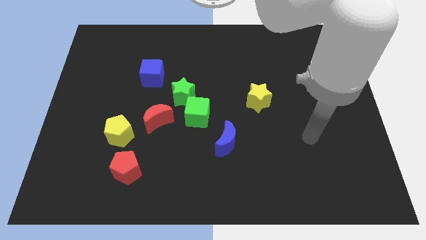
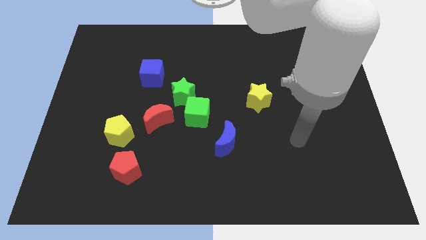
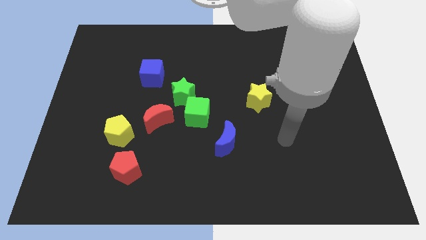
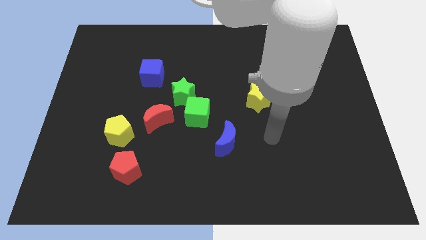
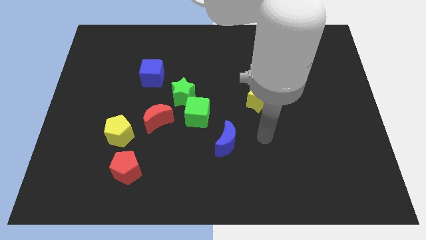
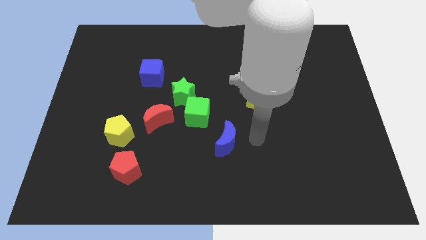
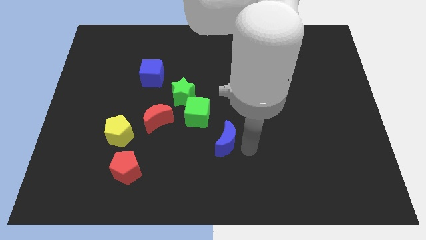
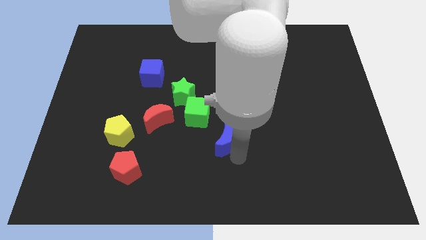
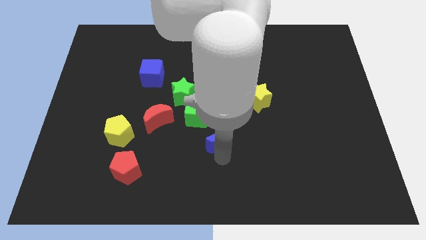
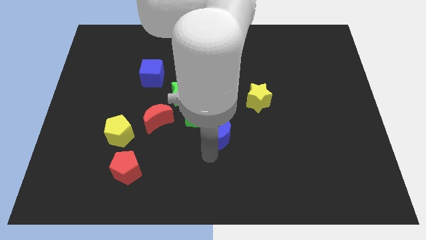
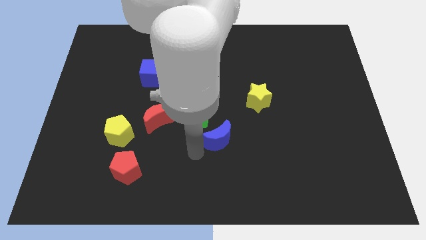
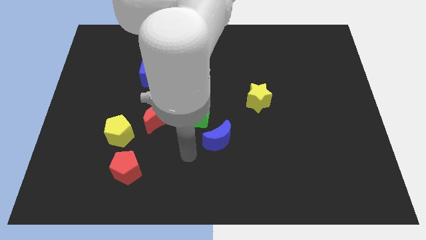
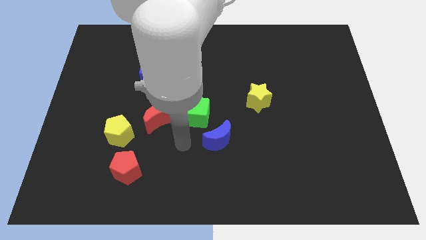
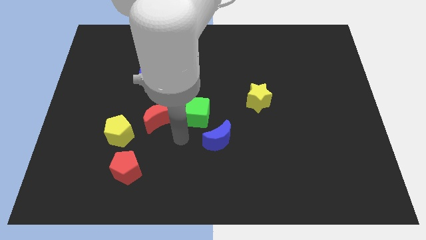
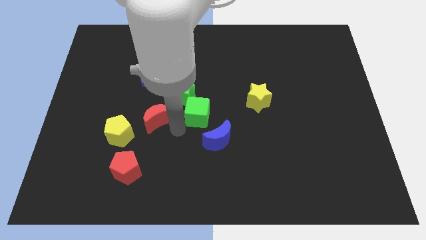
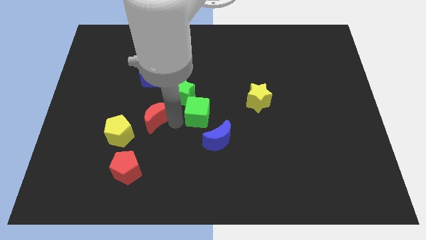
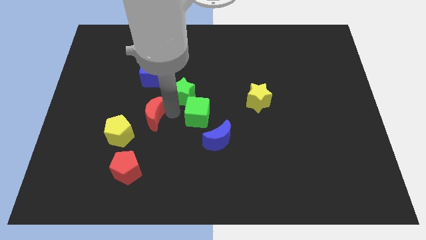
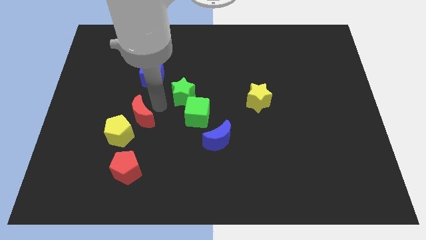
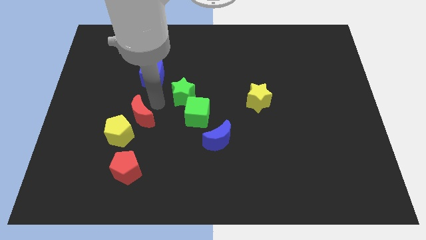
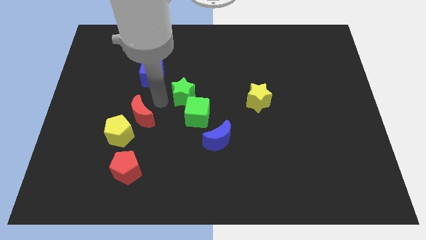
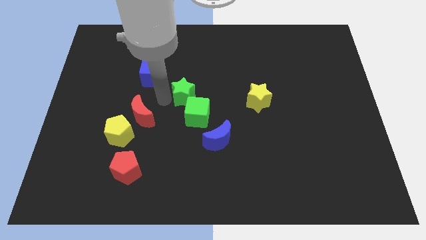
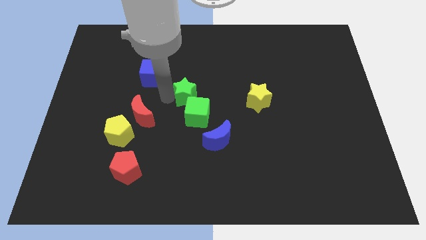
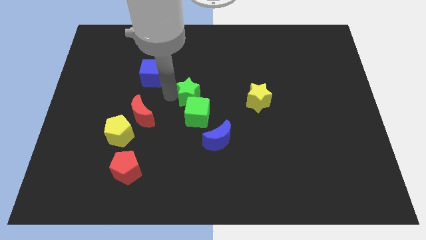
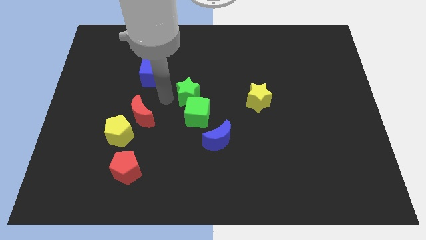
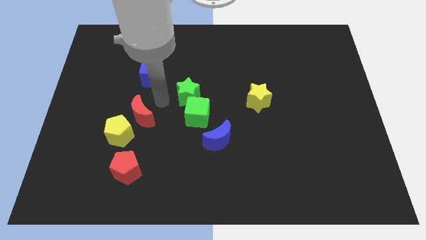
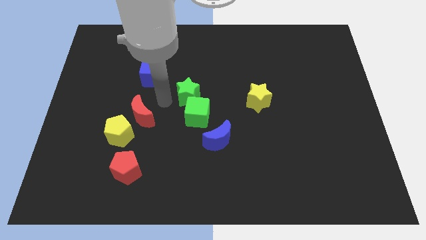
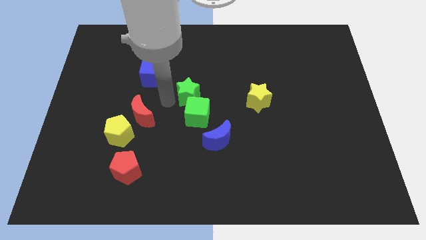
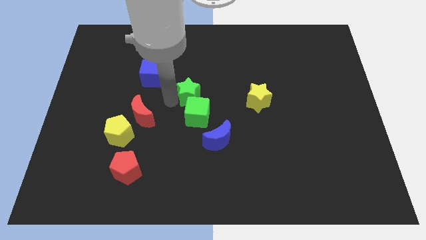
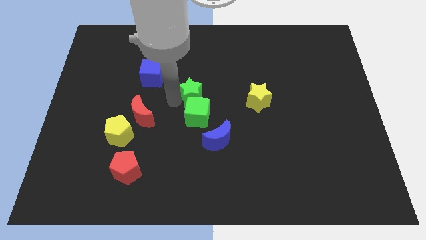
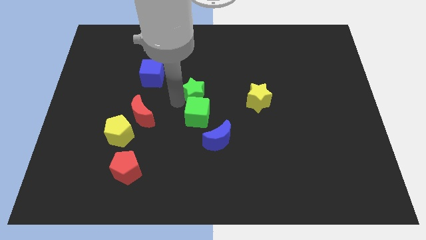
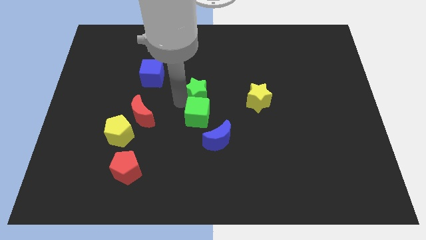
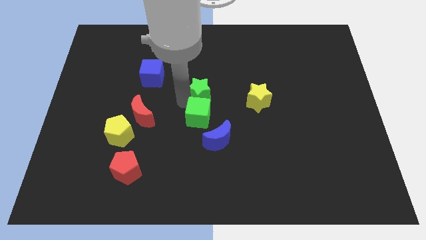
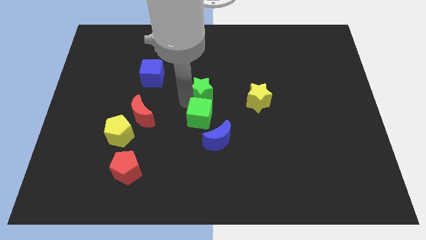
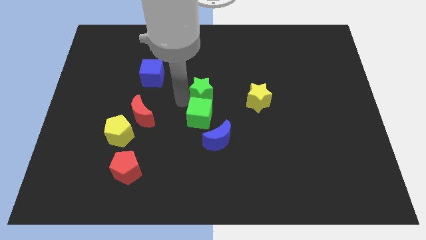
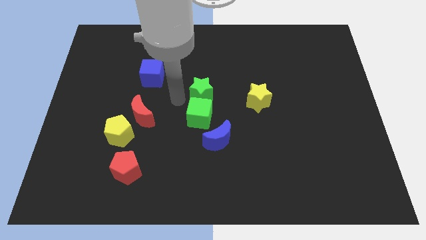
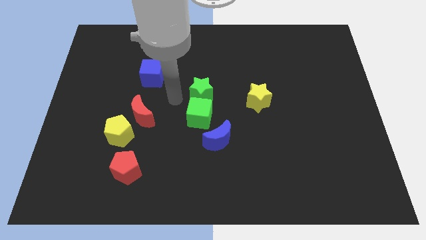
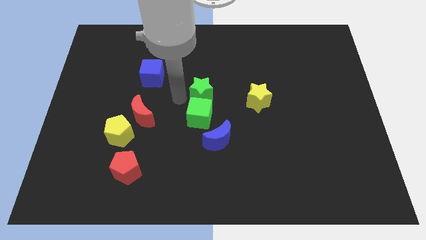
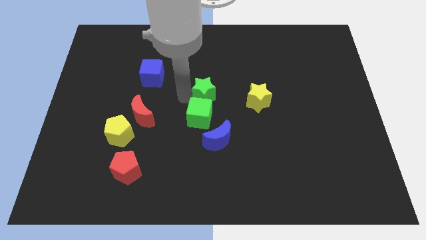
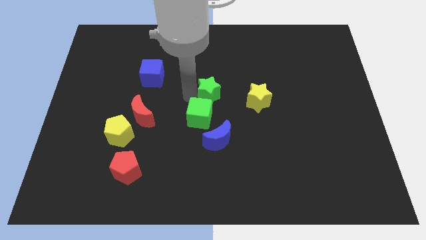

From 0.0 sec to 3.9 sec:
separate the green star from the green cube, red moon, and blue cube

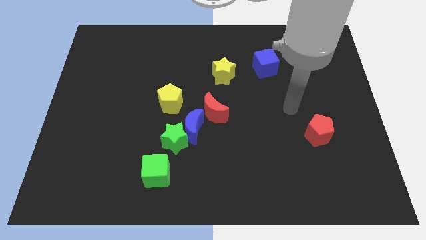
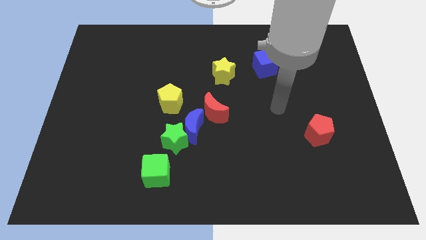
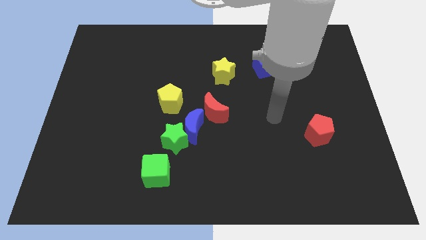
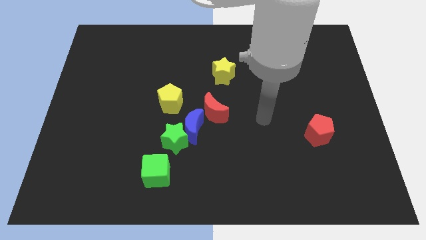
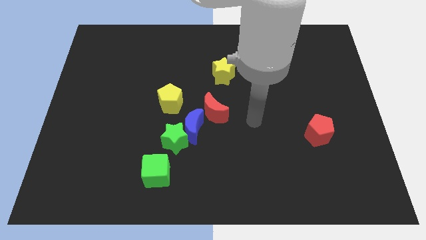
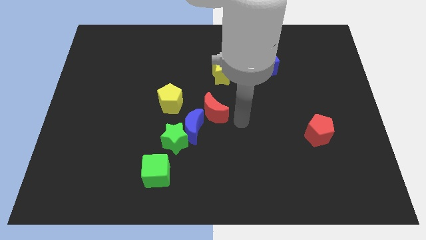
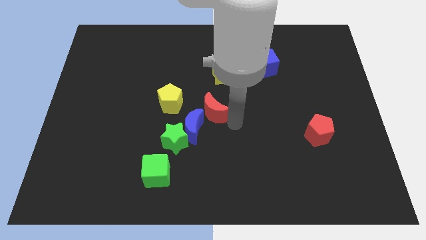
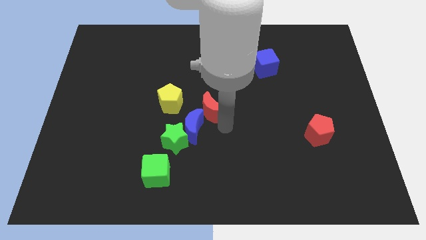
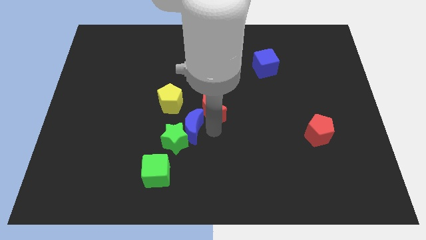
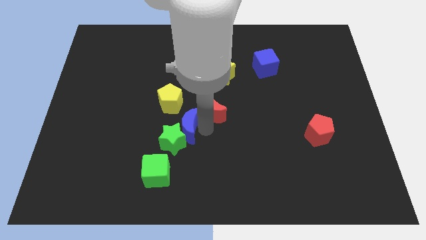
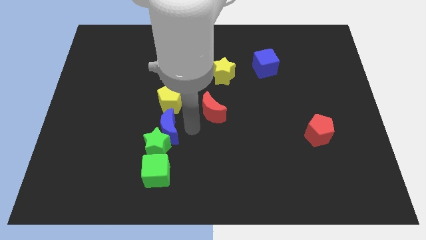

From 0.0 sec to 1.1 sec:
pull the red moon apart from the blue moon

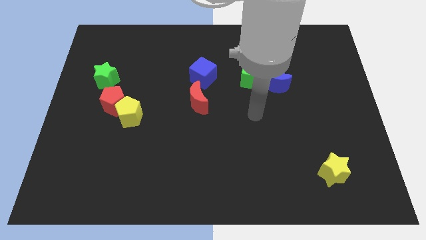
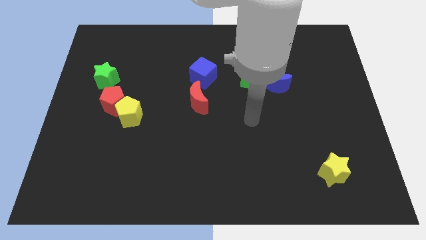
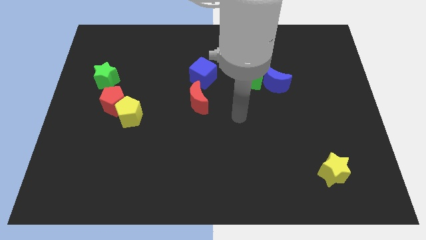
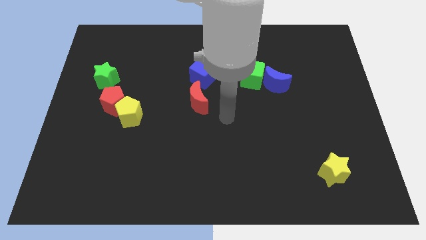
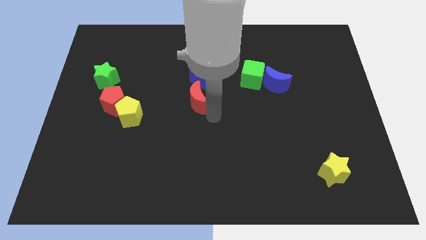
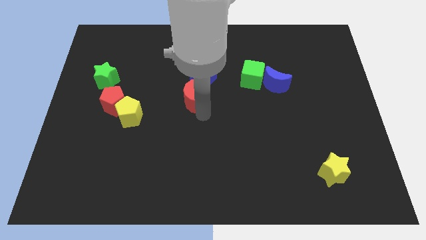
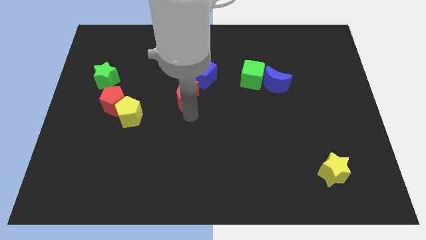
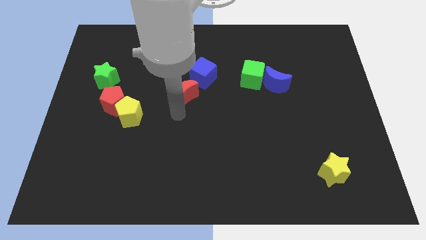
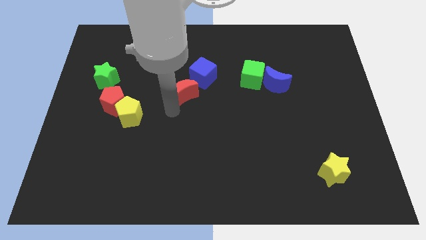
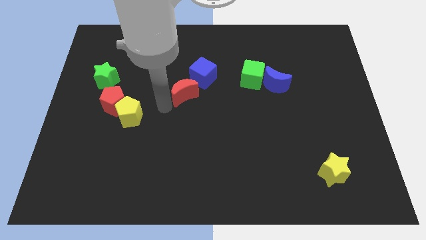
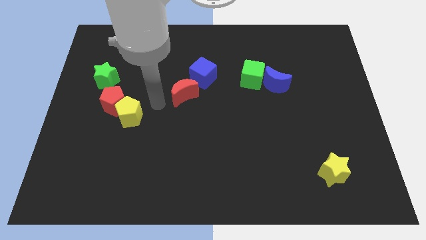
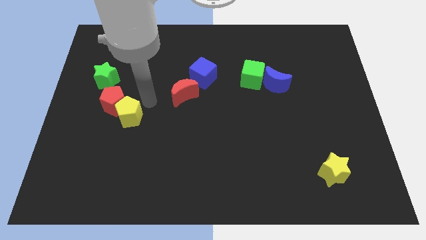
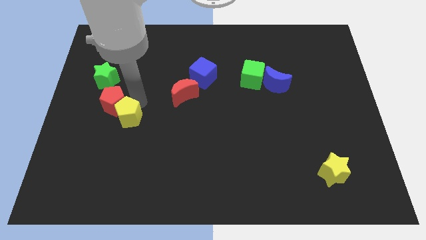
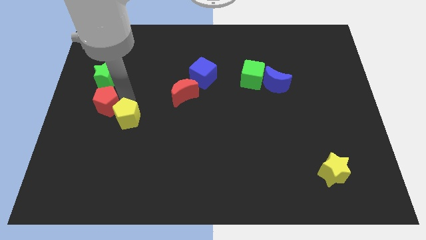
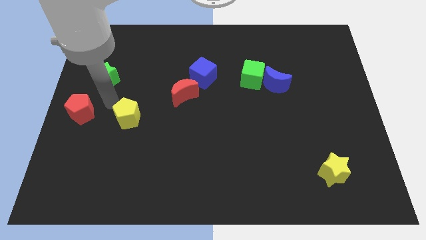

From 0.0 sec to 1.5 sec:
pull the yellow pentagon apart from the red pentagon

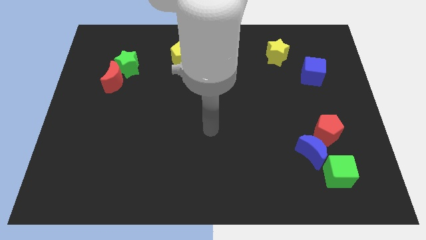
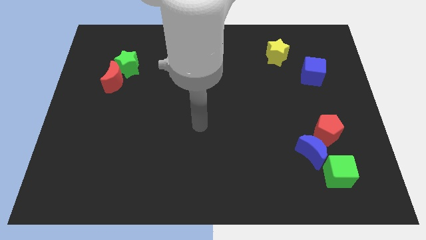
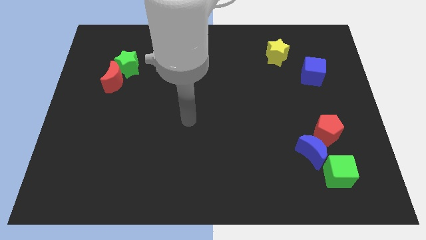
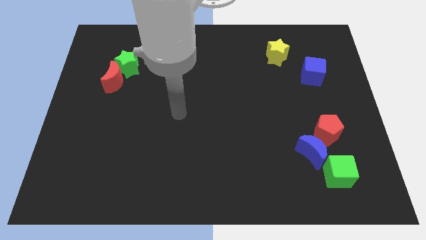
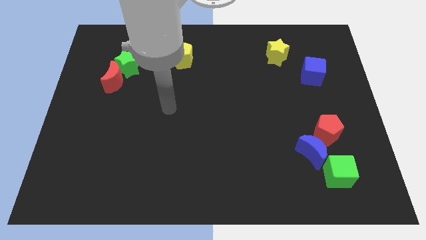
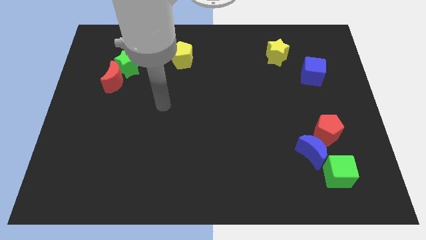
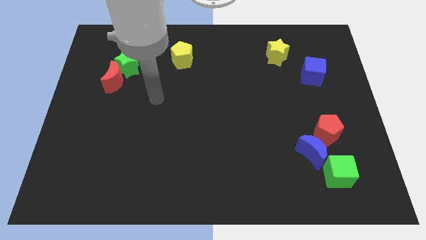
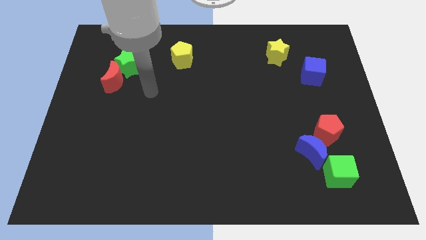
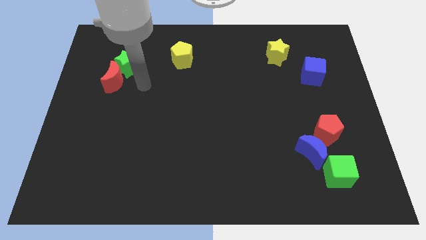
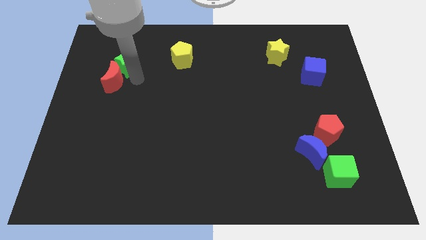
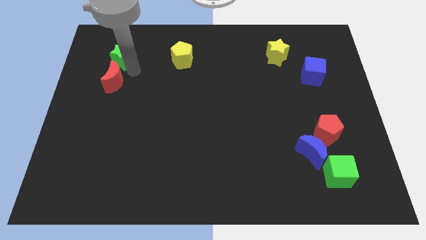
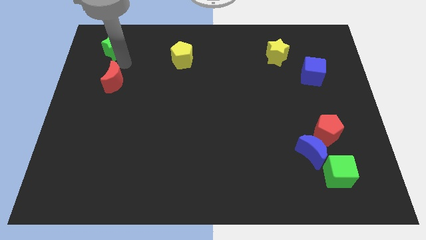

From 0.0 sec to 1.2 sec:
move the red moon away from the green star

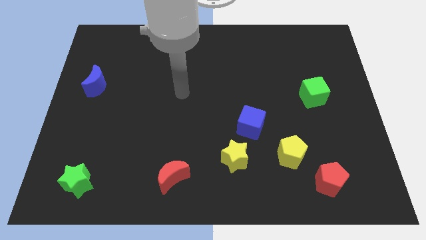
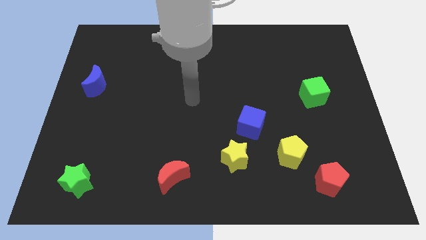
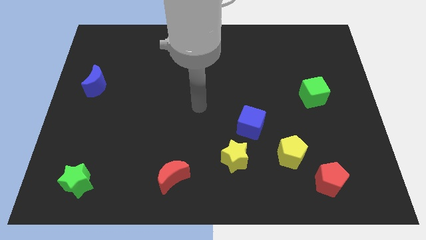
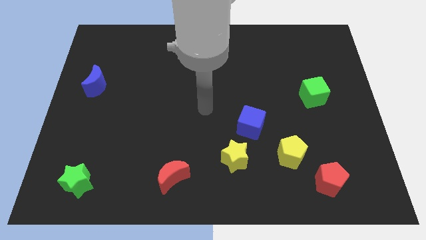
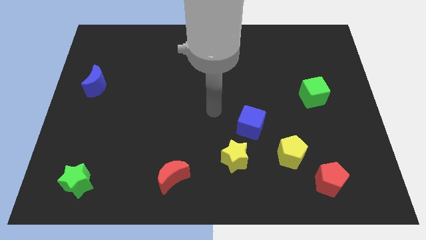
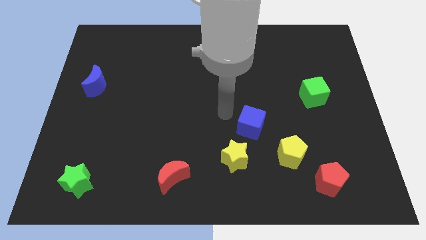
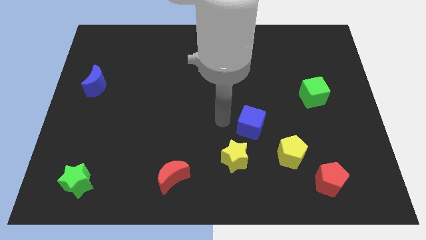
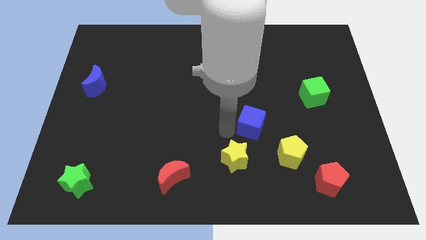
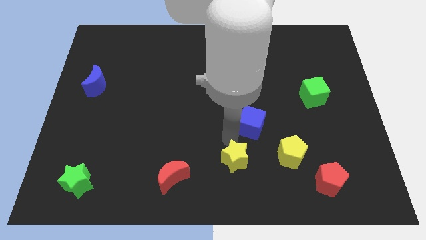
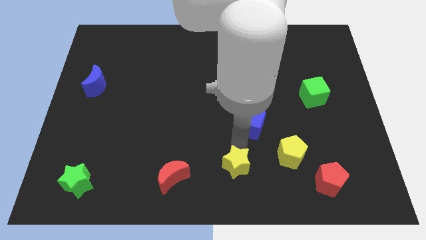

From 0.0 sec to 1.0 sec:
separate the blue cube from the yellow star

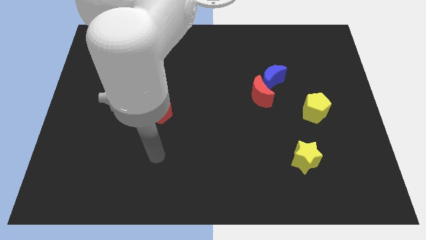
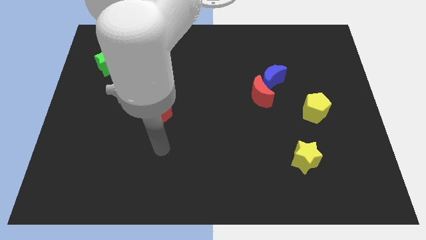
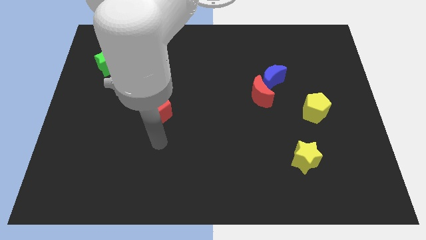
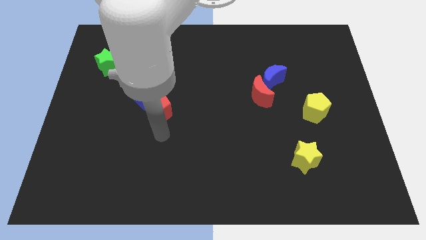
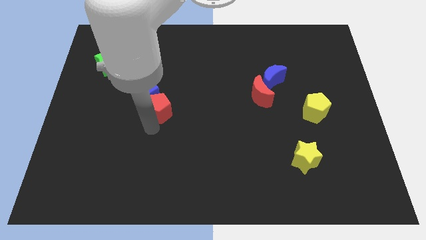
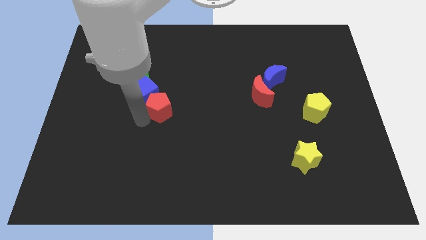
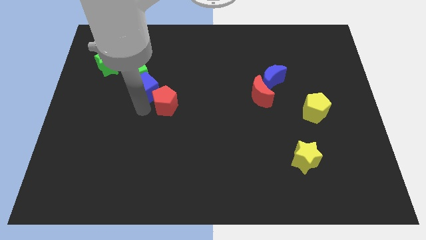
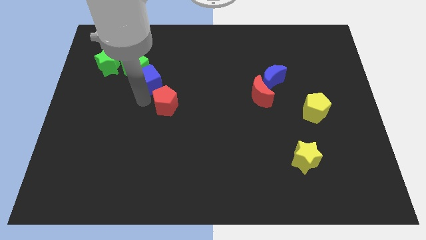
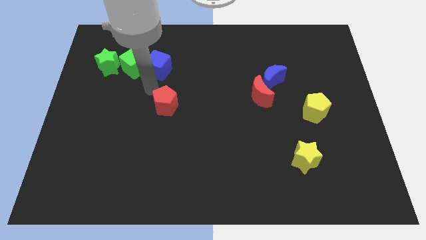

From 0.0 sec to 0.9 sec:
separate the red pentagon from the blue cube
